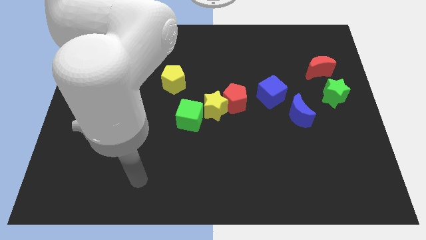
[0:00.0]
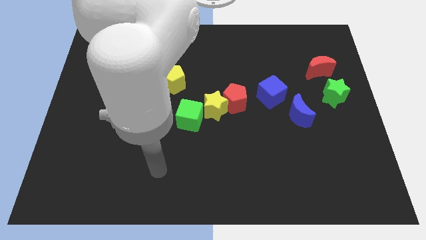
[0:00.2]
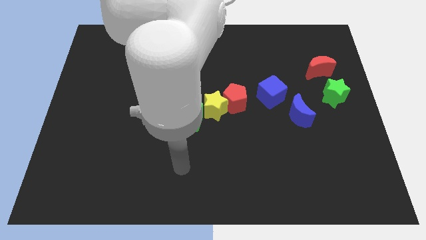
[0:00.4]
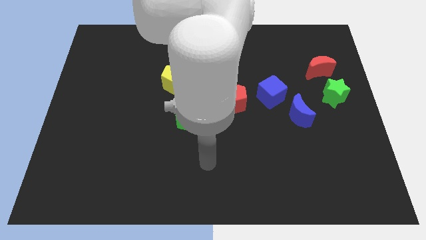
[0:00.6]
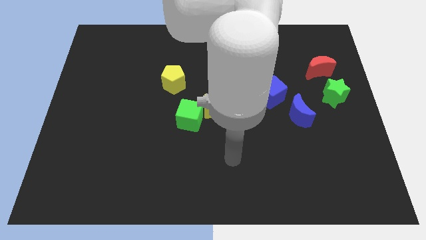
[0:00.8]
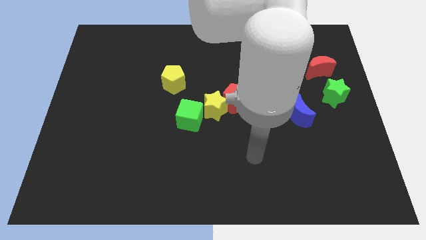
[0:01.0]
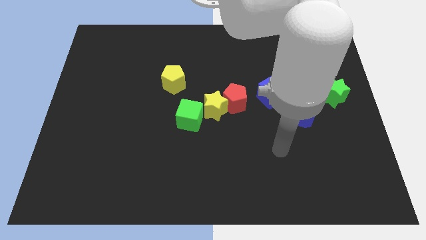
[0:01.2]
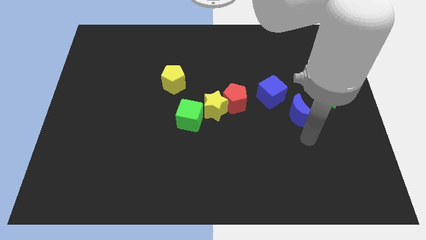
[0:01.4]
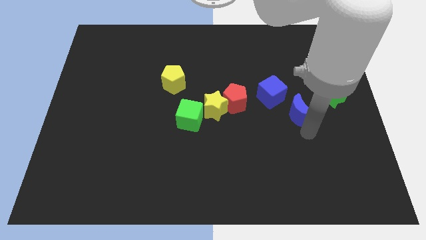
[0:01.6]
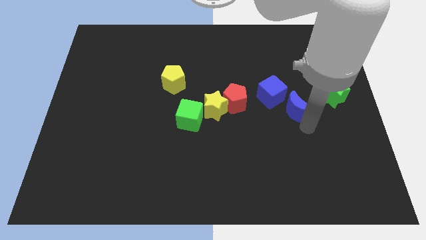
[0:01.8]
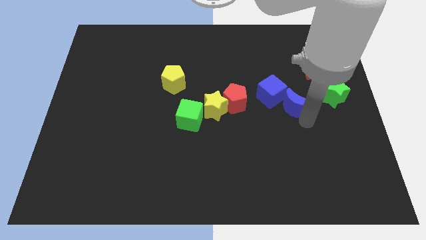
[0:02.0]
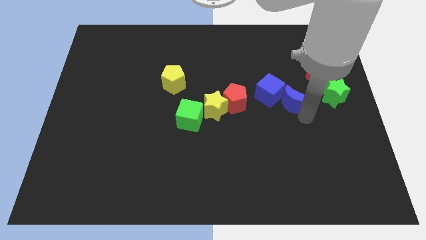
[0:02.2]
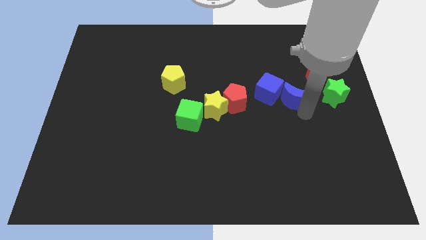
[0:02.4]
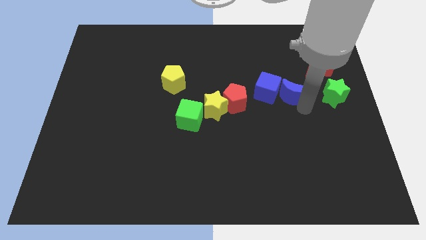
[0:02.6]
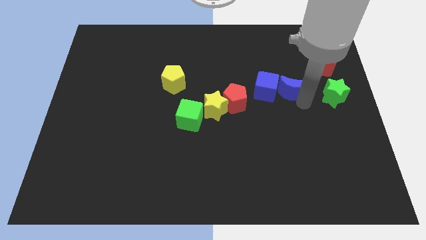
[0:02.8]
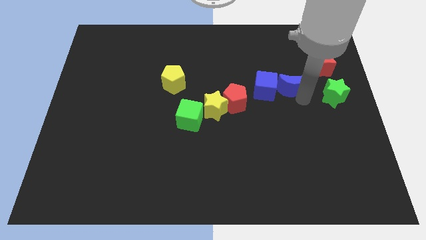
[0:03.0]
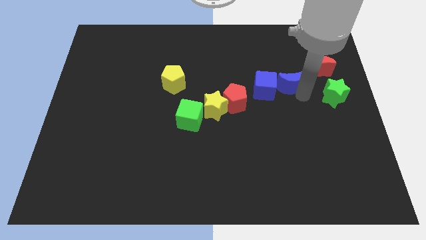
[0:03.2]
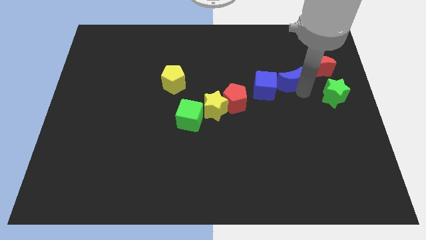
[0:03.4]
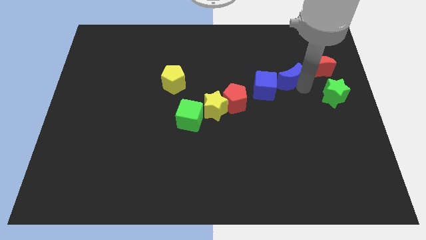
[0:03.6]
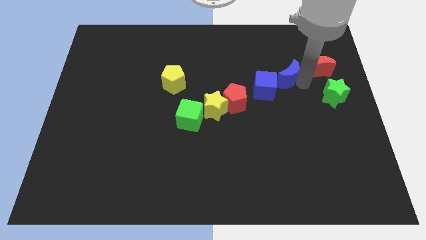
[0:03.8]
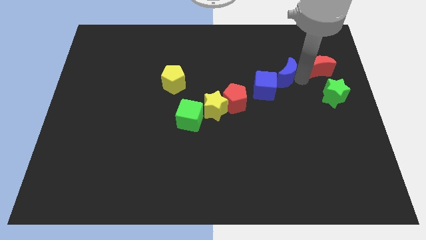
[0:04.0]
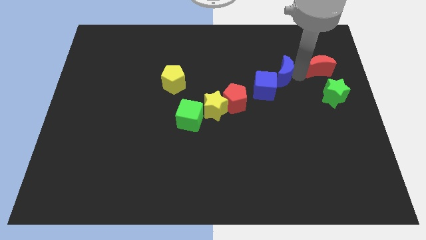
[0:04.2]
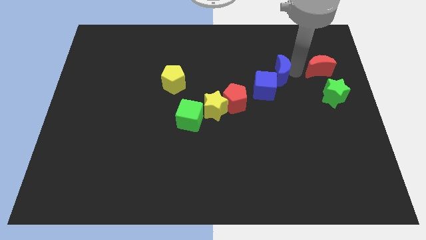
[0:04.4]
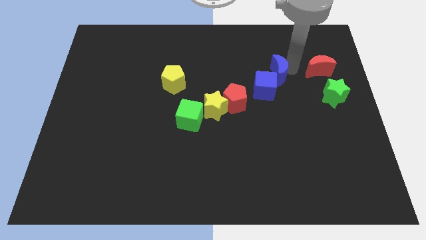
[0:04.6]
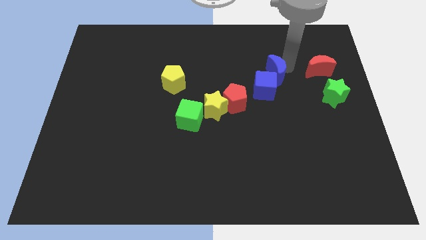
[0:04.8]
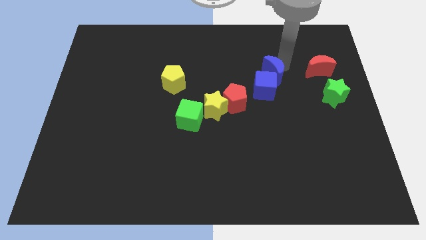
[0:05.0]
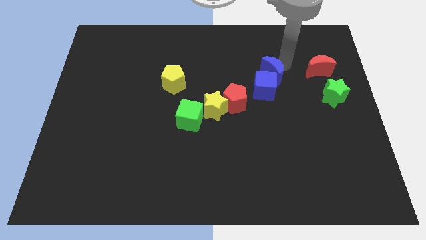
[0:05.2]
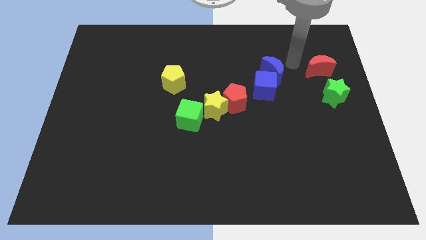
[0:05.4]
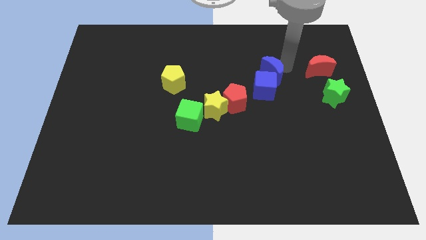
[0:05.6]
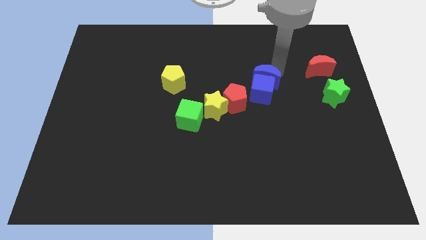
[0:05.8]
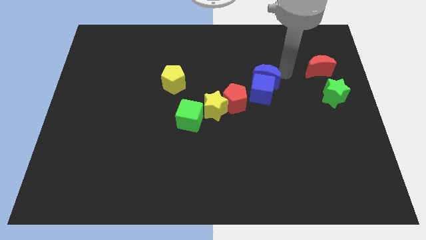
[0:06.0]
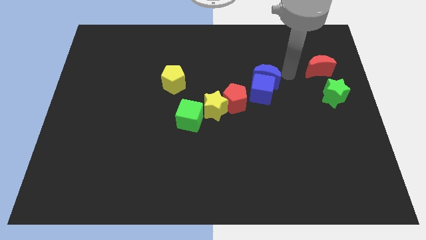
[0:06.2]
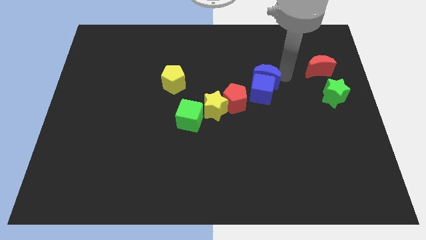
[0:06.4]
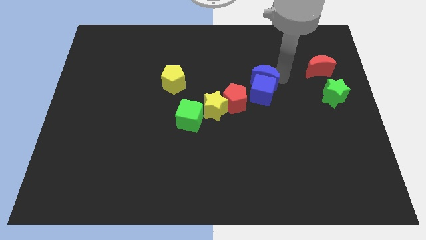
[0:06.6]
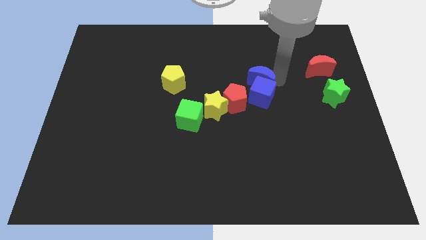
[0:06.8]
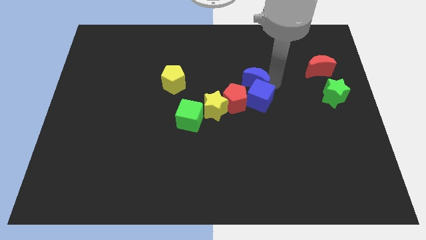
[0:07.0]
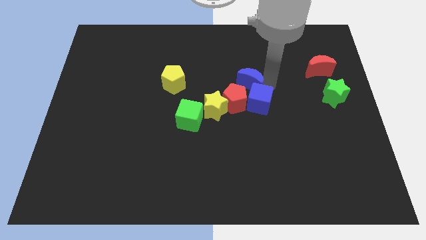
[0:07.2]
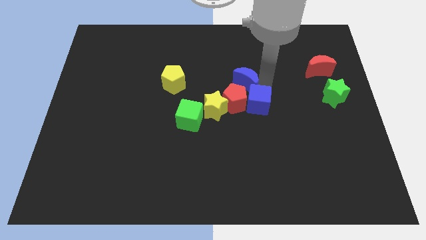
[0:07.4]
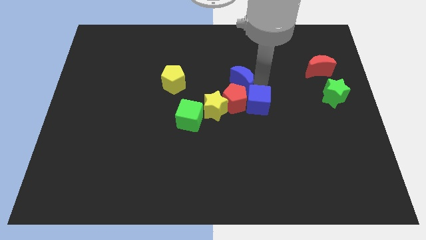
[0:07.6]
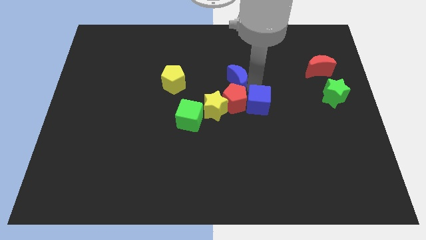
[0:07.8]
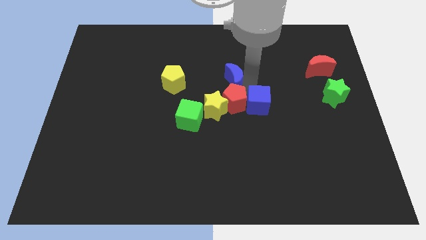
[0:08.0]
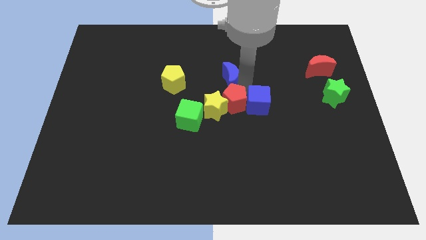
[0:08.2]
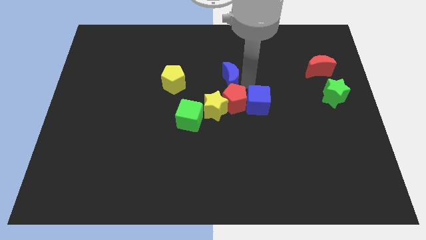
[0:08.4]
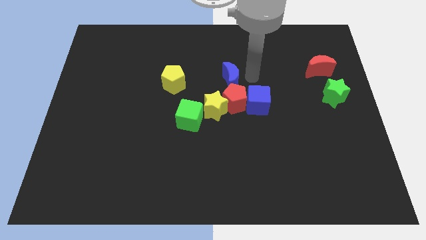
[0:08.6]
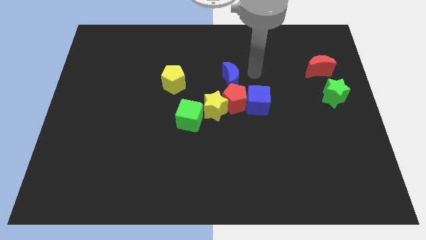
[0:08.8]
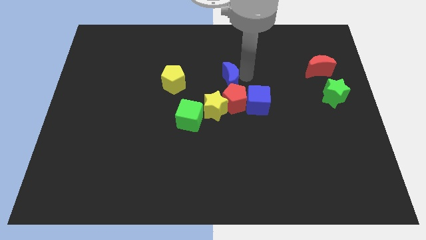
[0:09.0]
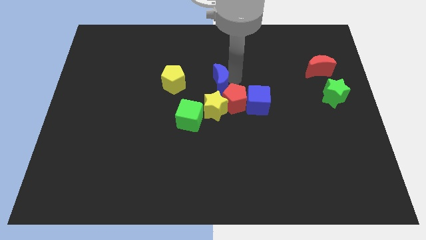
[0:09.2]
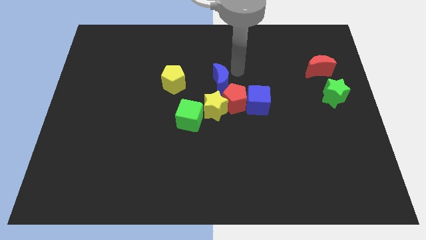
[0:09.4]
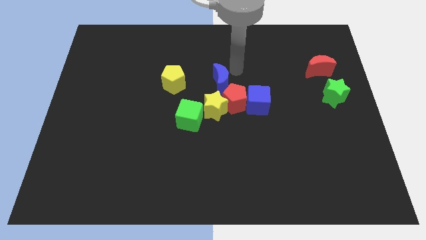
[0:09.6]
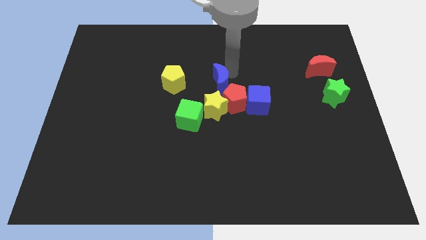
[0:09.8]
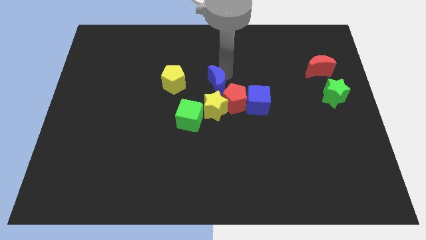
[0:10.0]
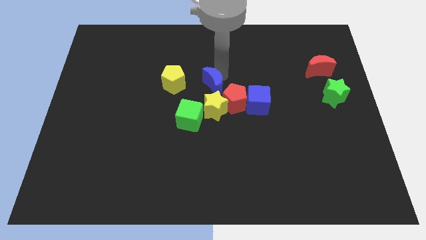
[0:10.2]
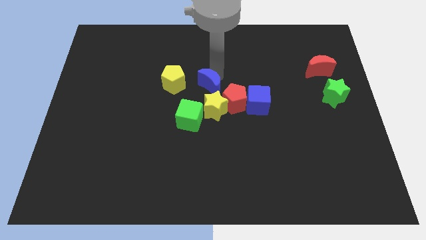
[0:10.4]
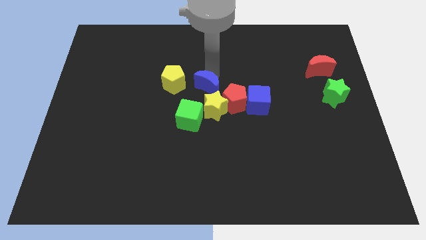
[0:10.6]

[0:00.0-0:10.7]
push the blue moon to the left of the red pentagon

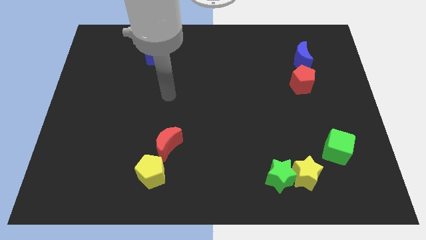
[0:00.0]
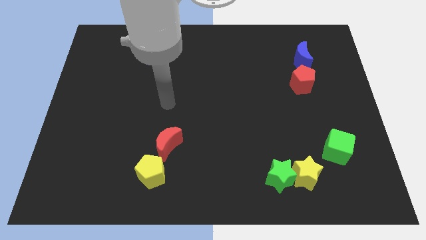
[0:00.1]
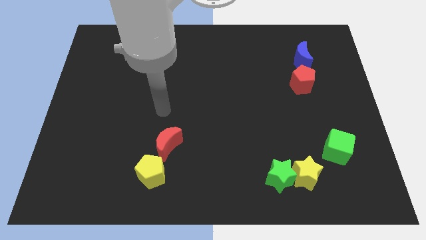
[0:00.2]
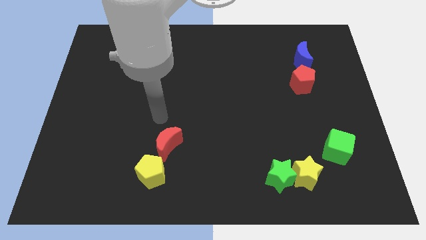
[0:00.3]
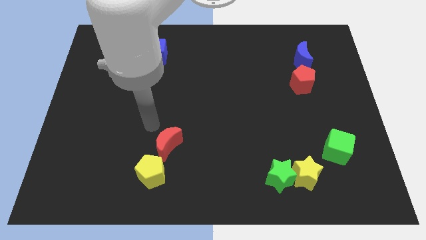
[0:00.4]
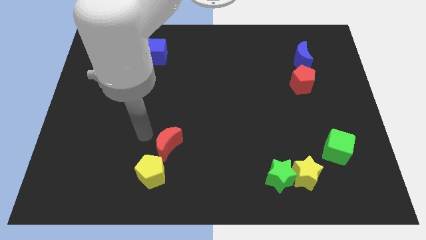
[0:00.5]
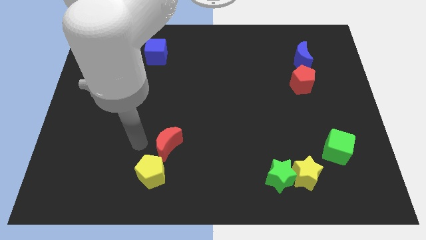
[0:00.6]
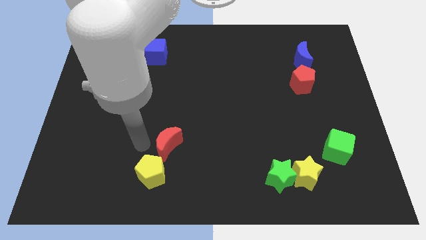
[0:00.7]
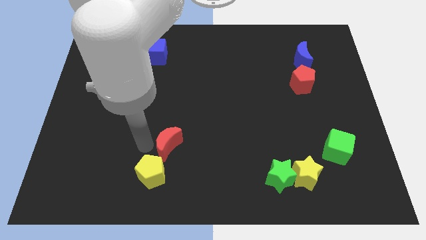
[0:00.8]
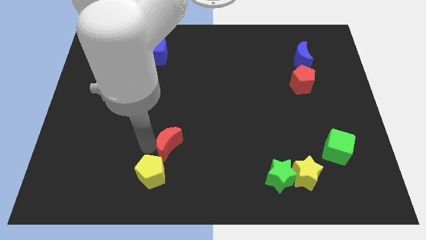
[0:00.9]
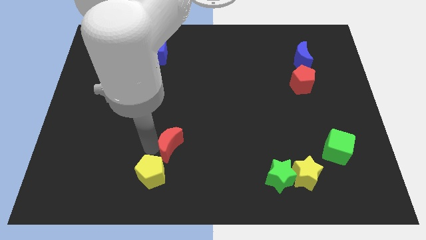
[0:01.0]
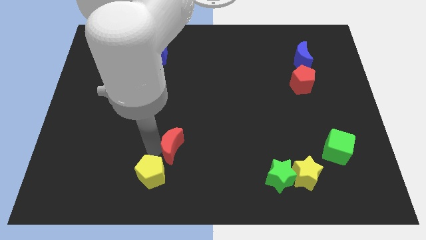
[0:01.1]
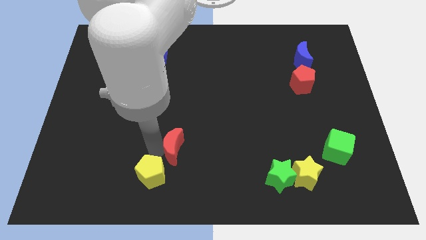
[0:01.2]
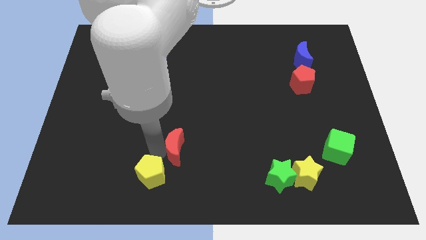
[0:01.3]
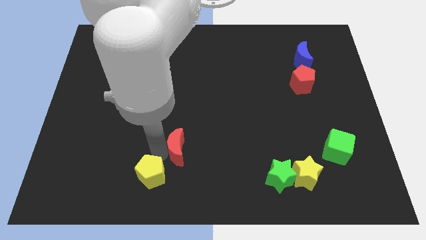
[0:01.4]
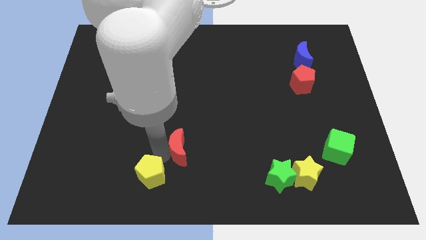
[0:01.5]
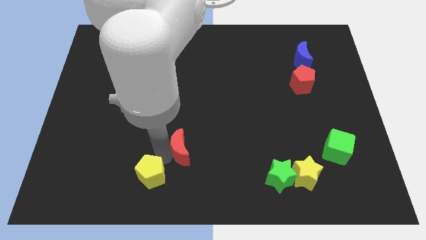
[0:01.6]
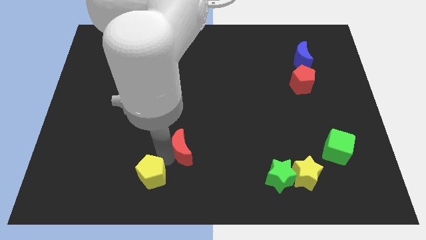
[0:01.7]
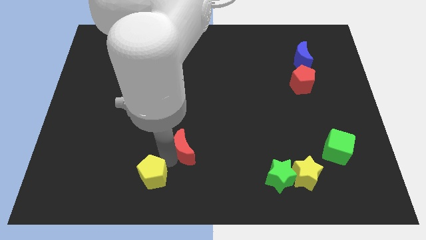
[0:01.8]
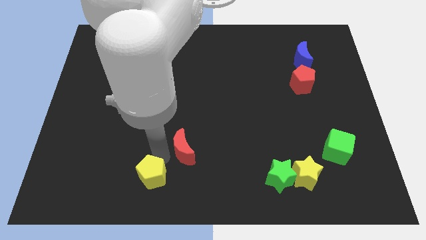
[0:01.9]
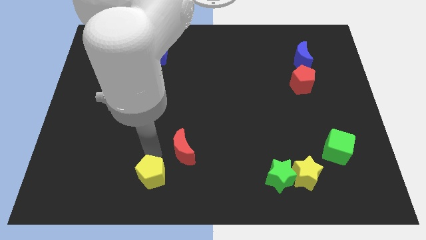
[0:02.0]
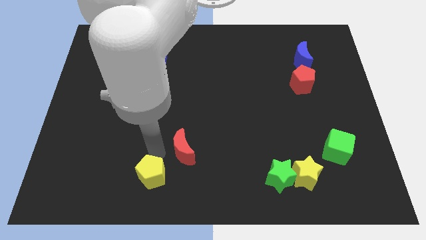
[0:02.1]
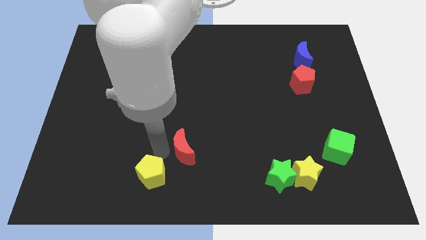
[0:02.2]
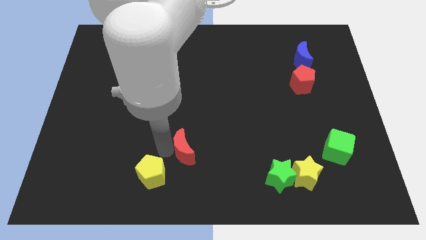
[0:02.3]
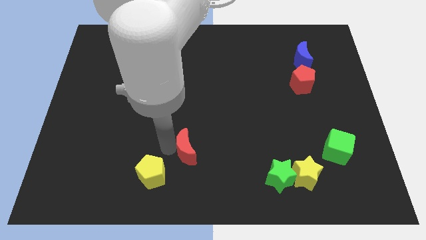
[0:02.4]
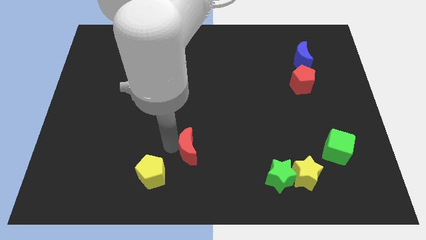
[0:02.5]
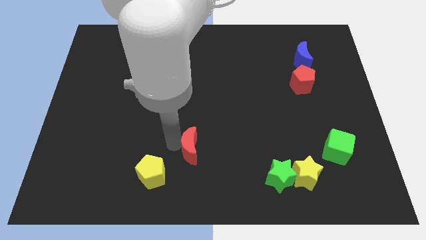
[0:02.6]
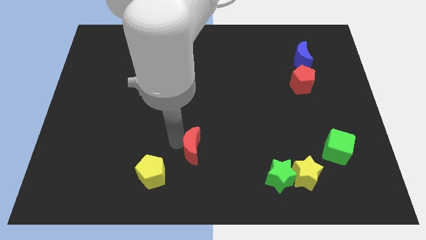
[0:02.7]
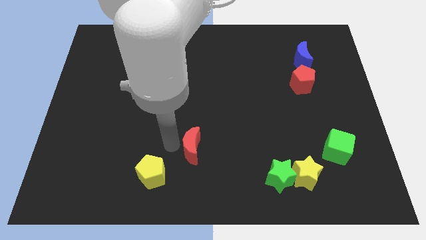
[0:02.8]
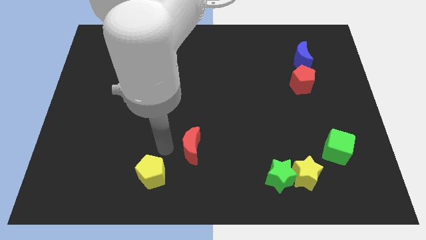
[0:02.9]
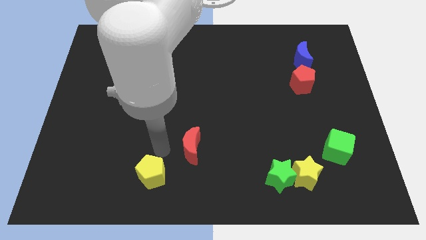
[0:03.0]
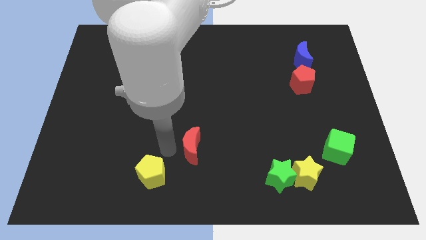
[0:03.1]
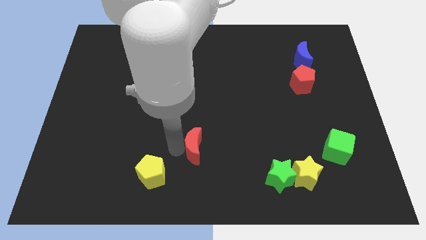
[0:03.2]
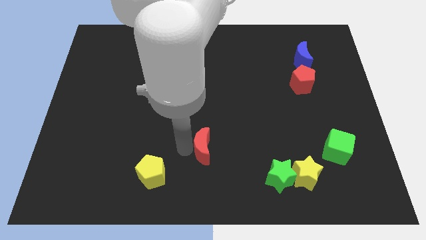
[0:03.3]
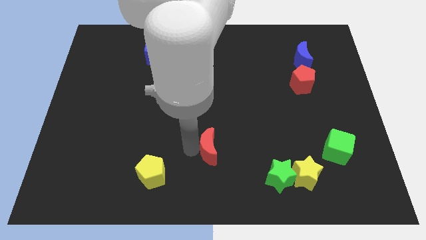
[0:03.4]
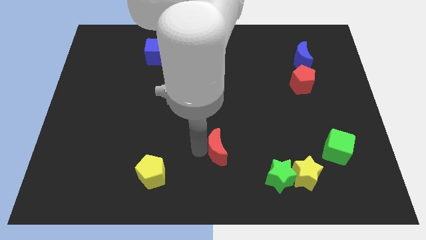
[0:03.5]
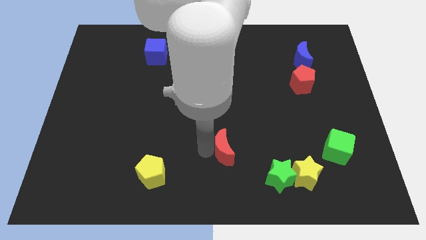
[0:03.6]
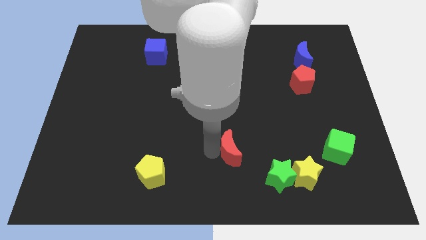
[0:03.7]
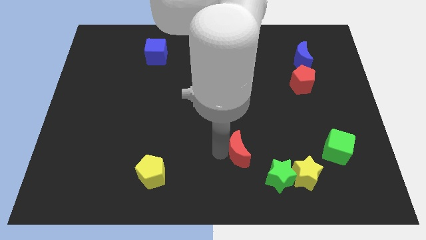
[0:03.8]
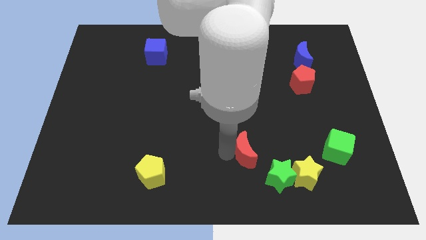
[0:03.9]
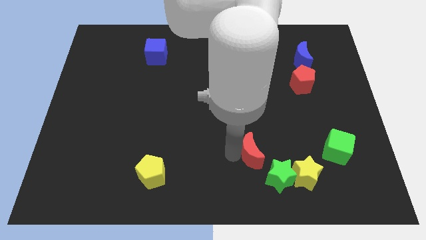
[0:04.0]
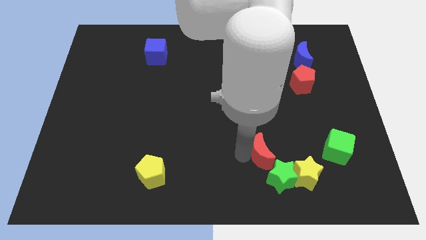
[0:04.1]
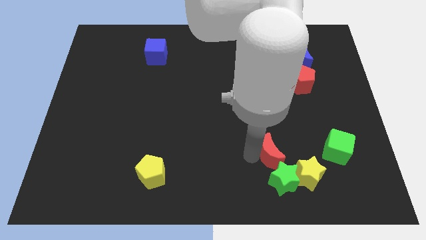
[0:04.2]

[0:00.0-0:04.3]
move the red moon to the left side of the green cube
